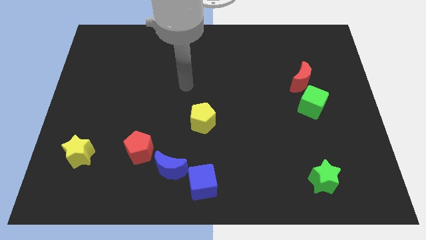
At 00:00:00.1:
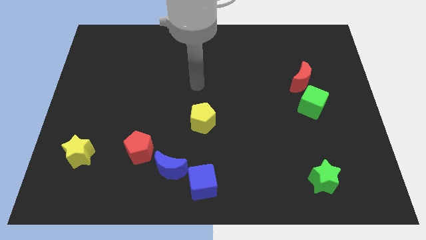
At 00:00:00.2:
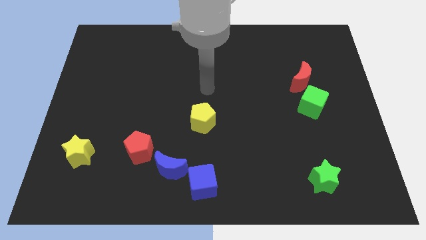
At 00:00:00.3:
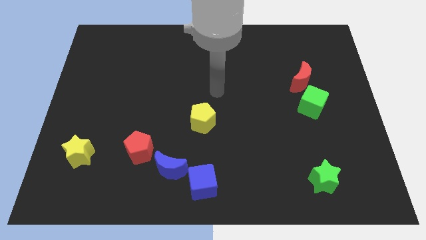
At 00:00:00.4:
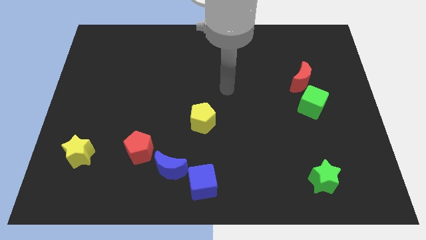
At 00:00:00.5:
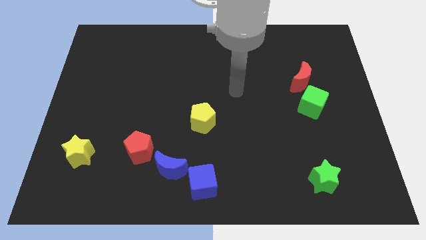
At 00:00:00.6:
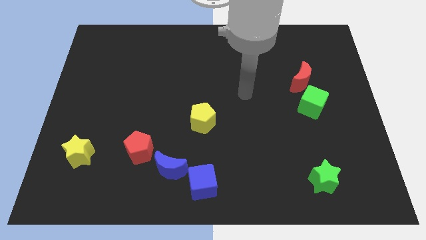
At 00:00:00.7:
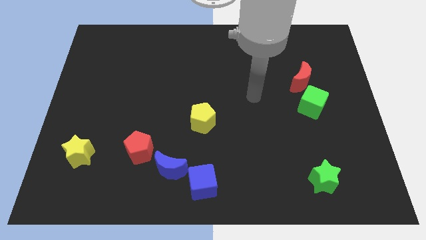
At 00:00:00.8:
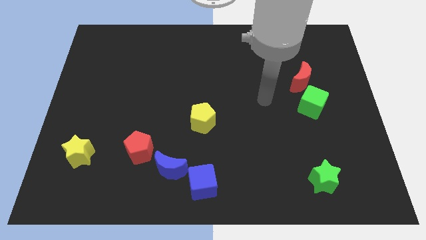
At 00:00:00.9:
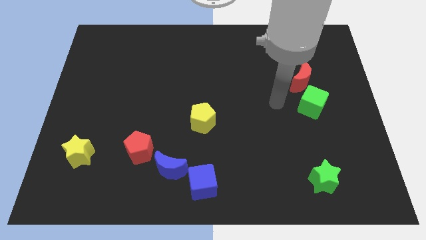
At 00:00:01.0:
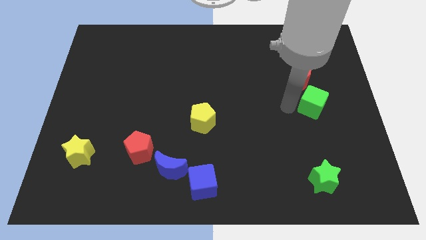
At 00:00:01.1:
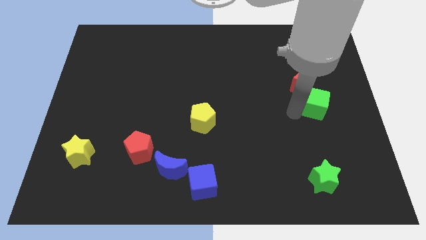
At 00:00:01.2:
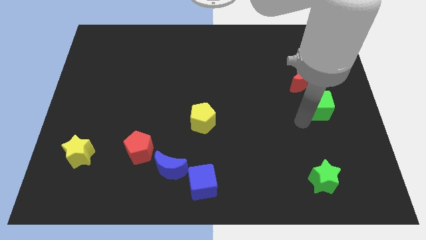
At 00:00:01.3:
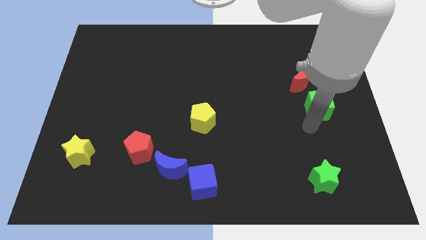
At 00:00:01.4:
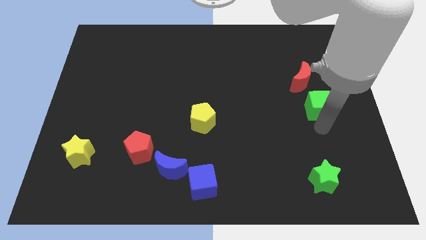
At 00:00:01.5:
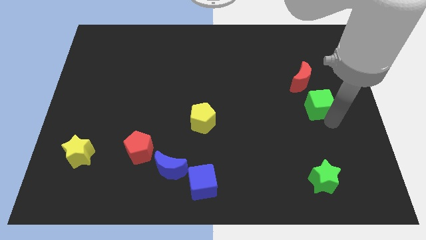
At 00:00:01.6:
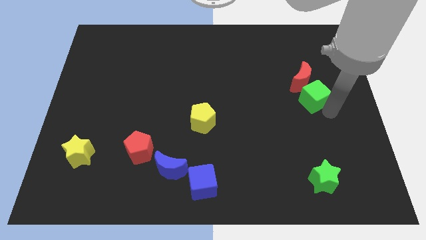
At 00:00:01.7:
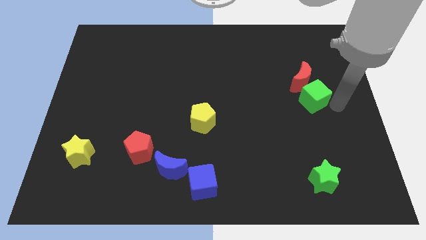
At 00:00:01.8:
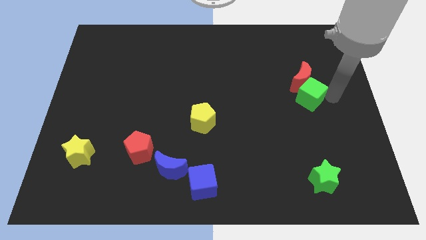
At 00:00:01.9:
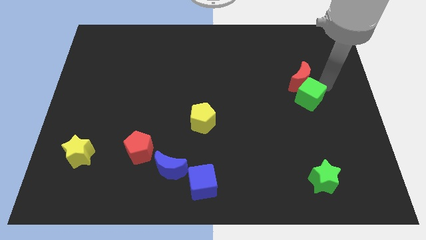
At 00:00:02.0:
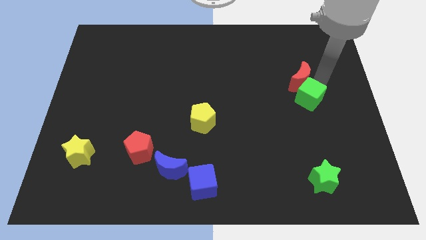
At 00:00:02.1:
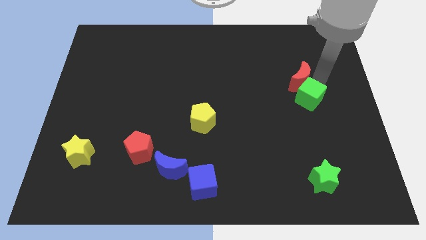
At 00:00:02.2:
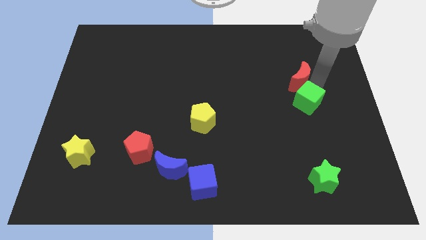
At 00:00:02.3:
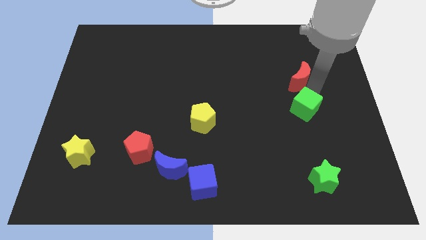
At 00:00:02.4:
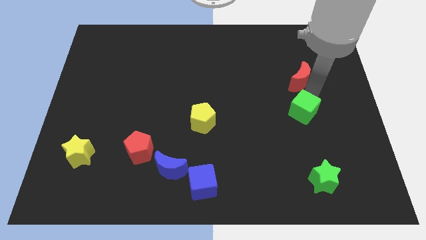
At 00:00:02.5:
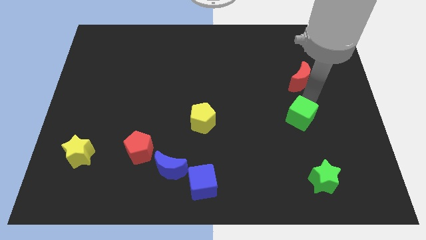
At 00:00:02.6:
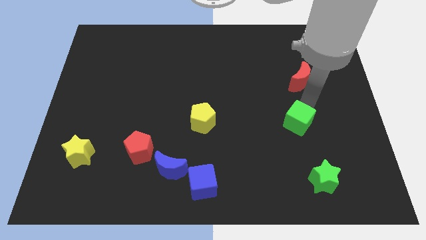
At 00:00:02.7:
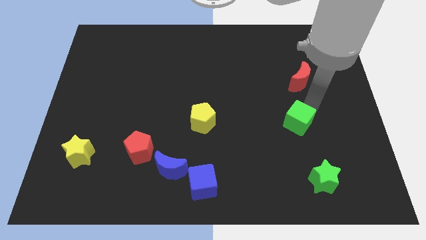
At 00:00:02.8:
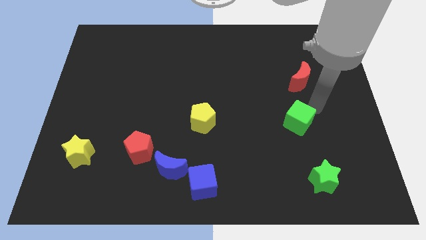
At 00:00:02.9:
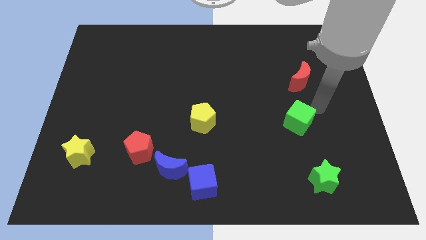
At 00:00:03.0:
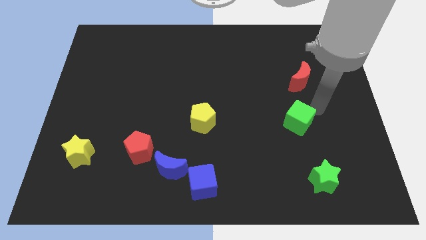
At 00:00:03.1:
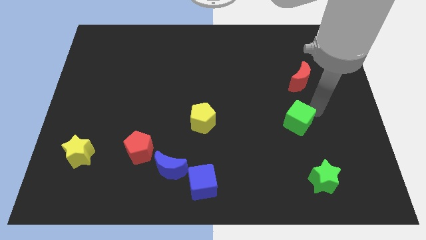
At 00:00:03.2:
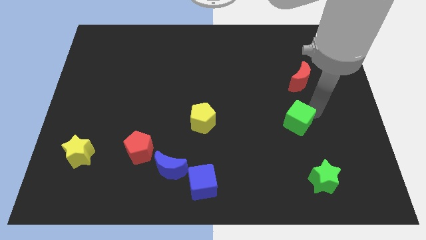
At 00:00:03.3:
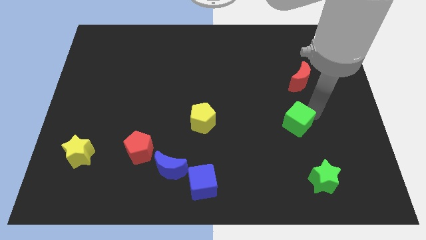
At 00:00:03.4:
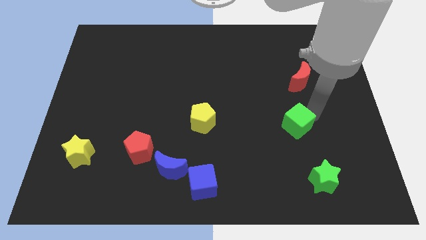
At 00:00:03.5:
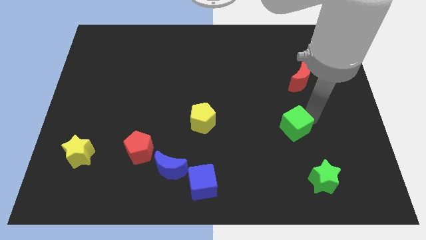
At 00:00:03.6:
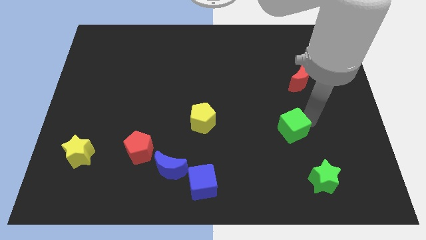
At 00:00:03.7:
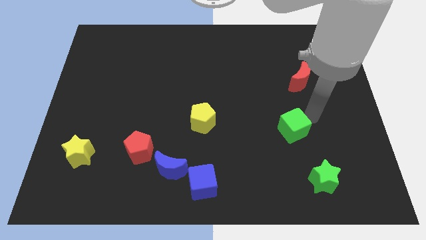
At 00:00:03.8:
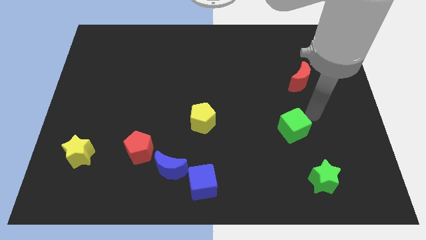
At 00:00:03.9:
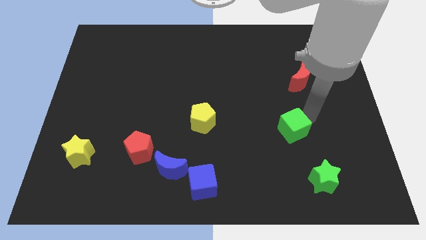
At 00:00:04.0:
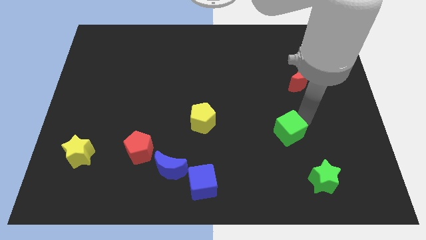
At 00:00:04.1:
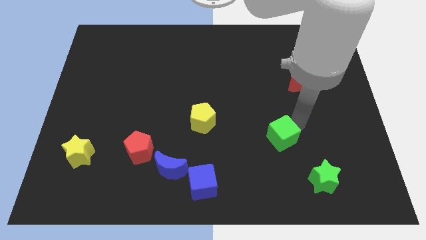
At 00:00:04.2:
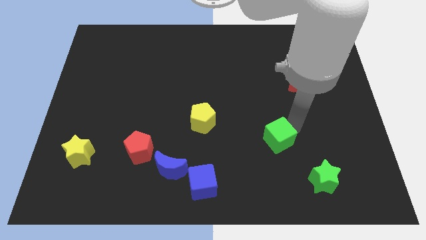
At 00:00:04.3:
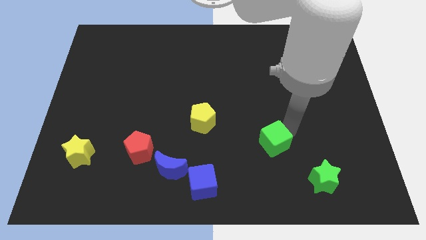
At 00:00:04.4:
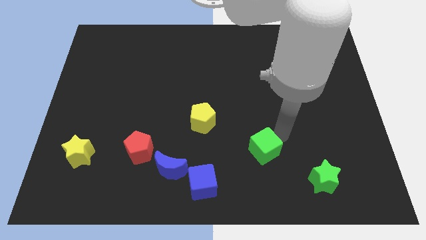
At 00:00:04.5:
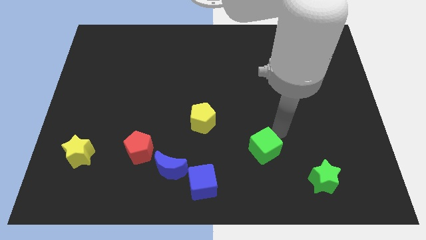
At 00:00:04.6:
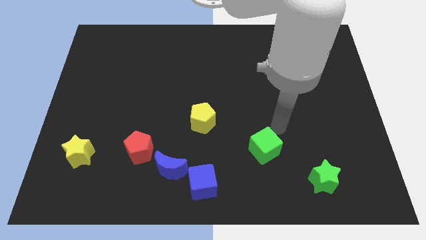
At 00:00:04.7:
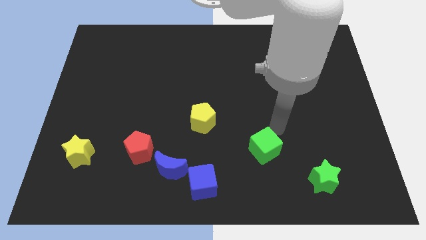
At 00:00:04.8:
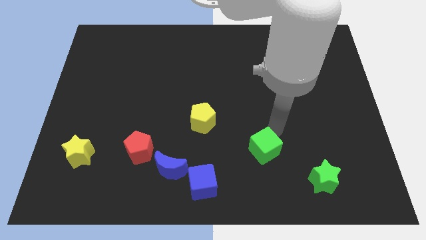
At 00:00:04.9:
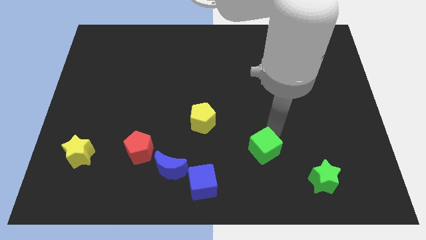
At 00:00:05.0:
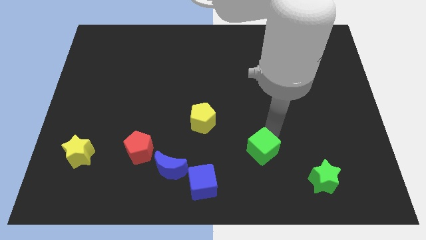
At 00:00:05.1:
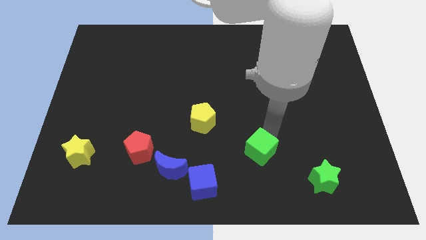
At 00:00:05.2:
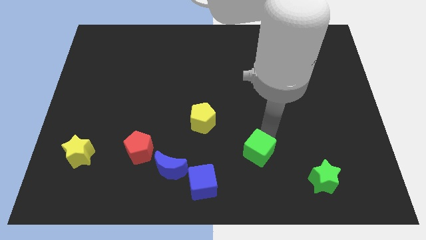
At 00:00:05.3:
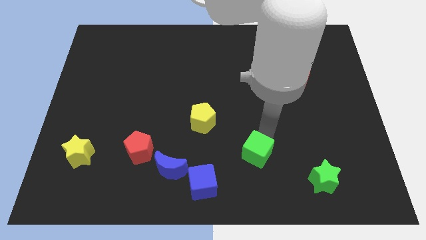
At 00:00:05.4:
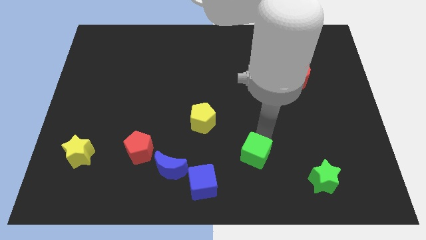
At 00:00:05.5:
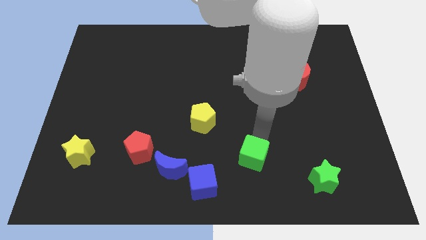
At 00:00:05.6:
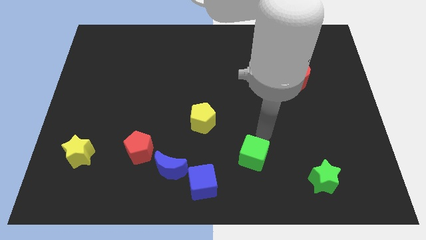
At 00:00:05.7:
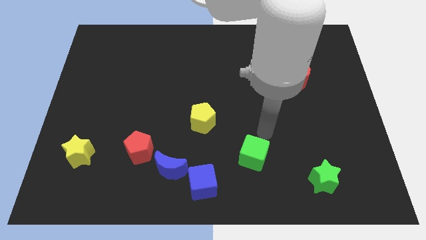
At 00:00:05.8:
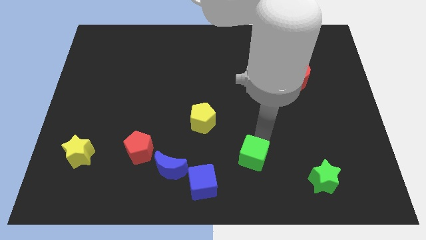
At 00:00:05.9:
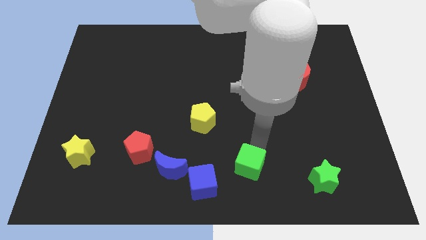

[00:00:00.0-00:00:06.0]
push the green cube to the bottom side
